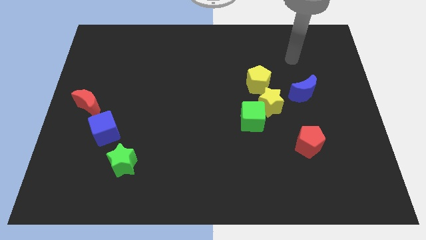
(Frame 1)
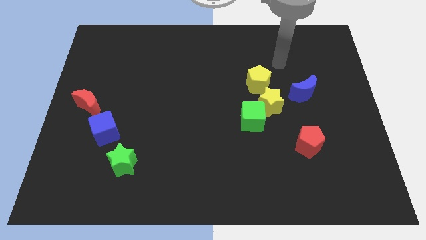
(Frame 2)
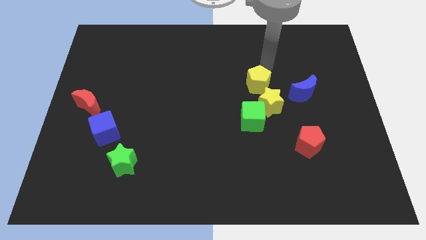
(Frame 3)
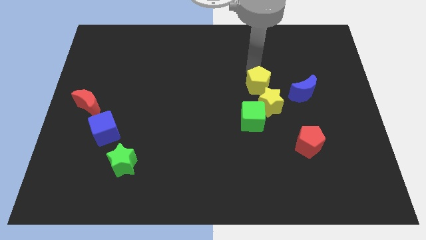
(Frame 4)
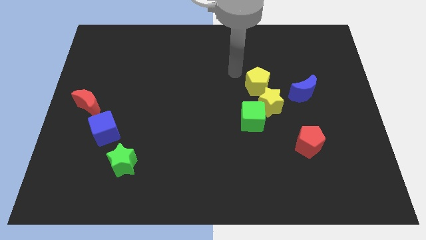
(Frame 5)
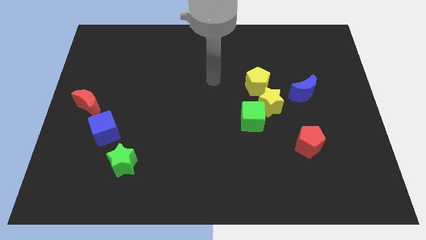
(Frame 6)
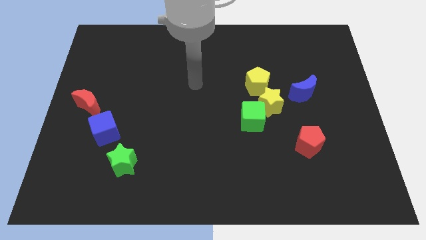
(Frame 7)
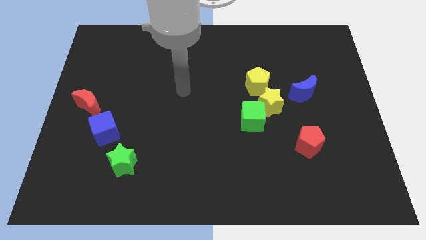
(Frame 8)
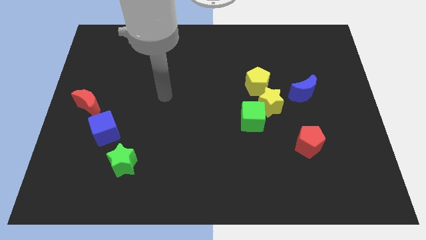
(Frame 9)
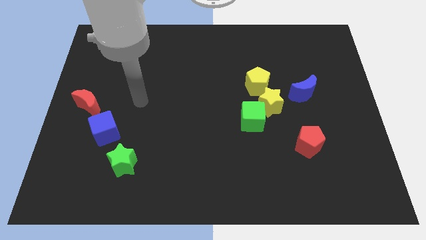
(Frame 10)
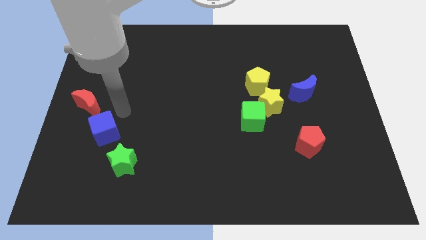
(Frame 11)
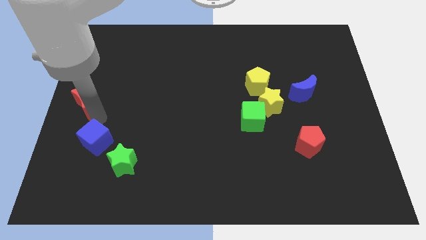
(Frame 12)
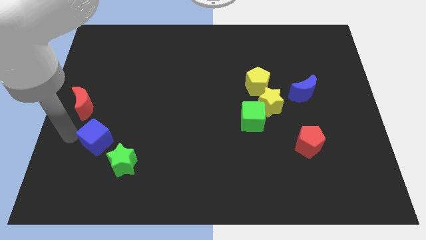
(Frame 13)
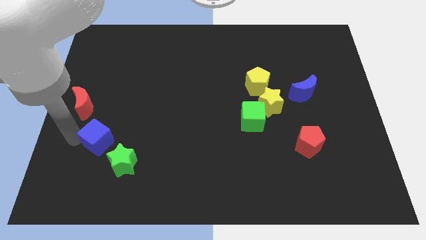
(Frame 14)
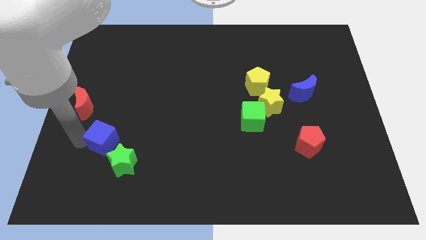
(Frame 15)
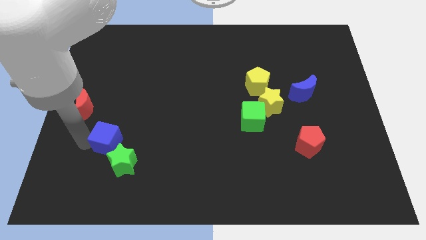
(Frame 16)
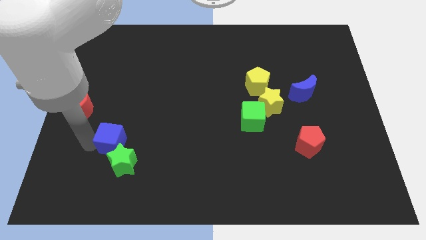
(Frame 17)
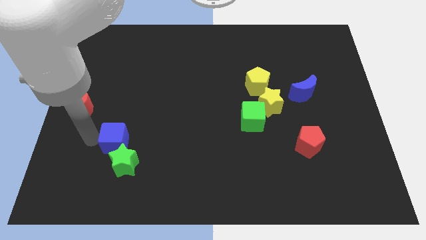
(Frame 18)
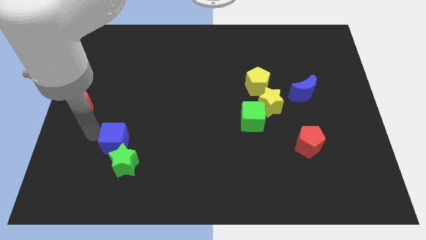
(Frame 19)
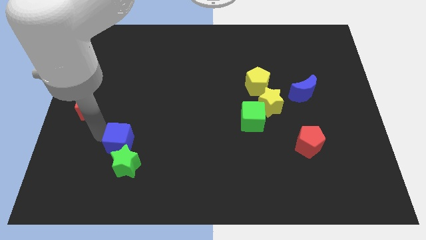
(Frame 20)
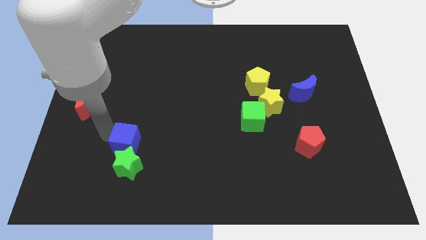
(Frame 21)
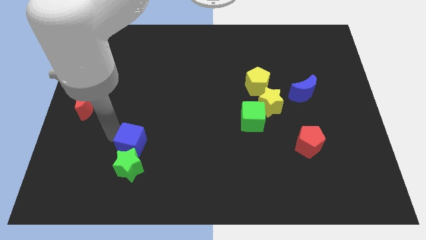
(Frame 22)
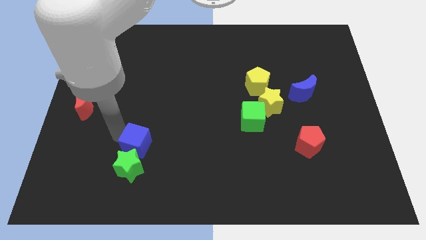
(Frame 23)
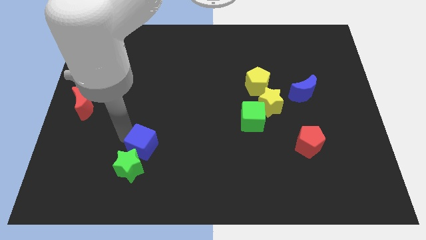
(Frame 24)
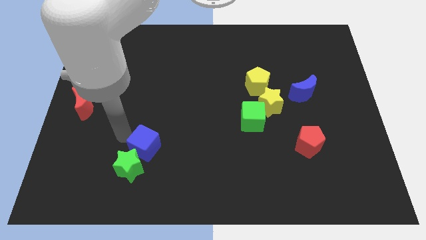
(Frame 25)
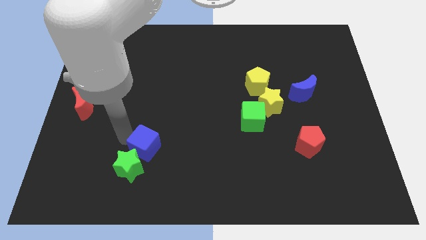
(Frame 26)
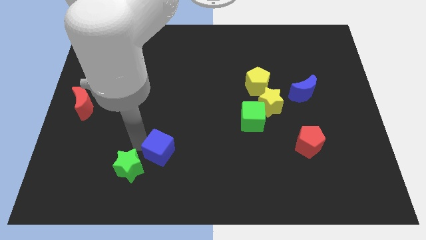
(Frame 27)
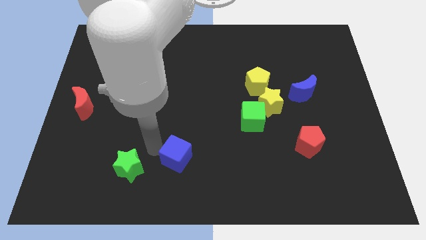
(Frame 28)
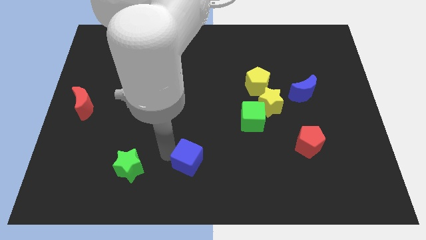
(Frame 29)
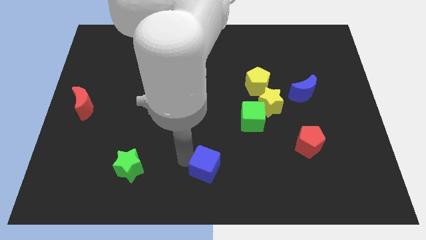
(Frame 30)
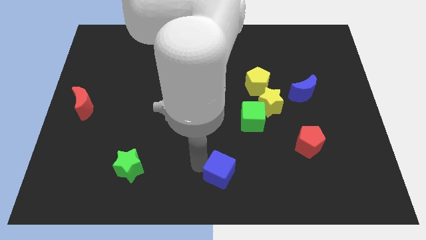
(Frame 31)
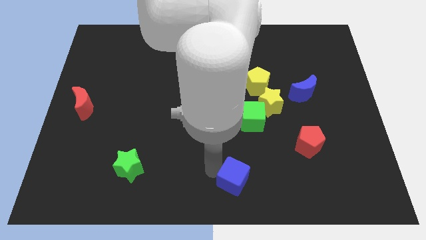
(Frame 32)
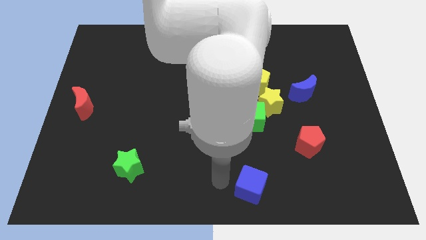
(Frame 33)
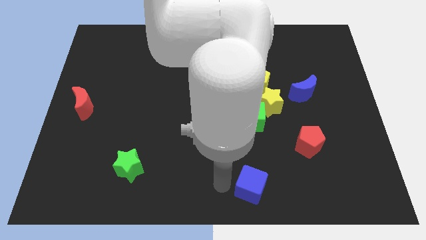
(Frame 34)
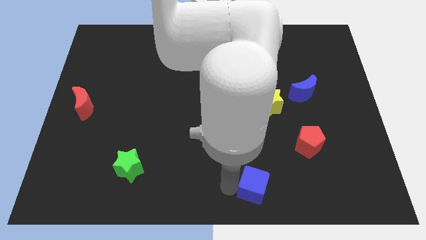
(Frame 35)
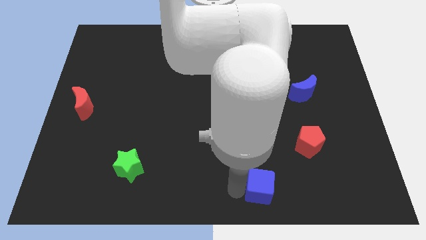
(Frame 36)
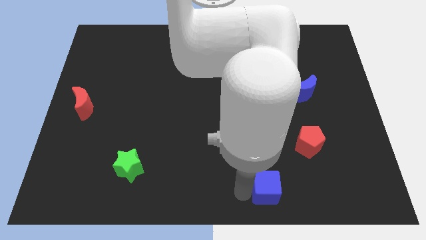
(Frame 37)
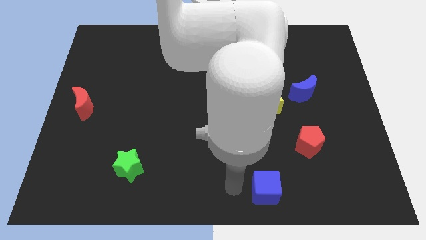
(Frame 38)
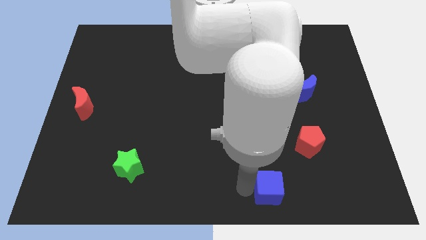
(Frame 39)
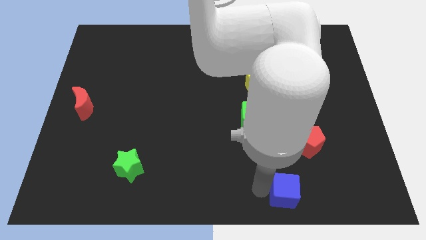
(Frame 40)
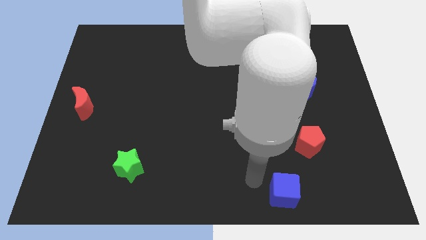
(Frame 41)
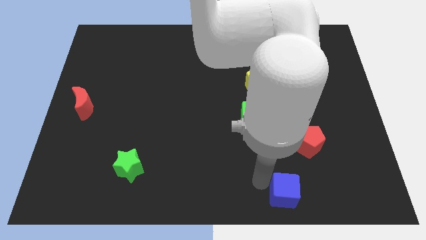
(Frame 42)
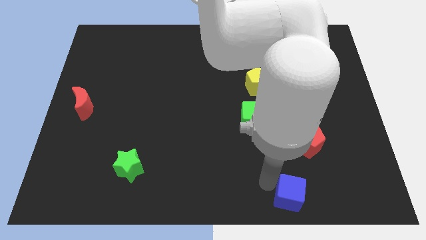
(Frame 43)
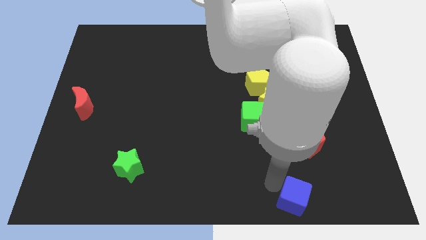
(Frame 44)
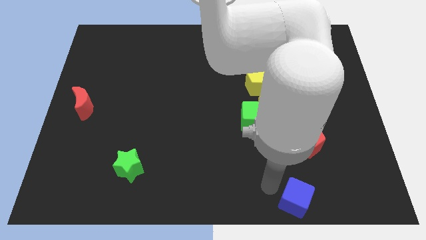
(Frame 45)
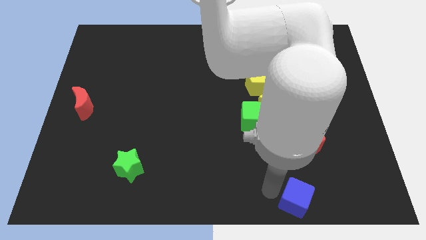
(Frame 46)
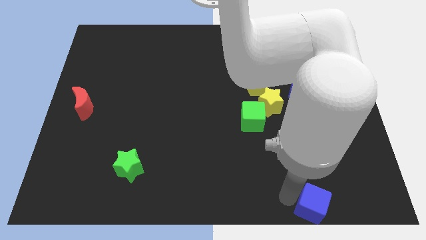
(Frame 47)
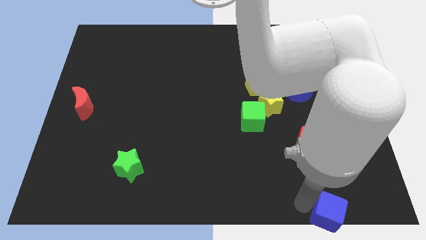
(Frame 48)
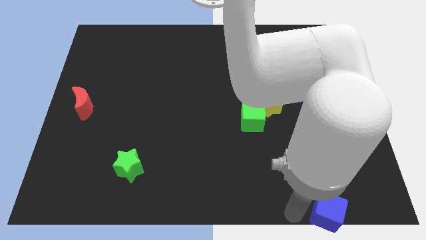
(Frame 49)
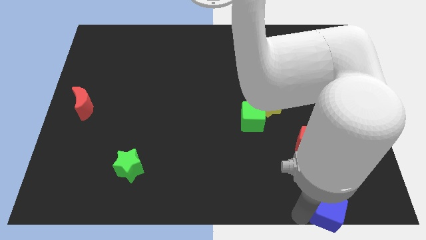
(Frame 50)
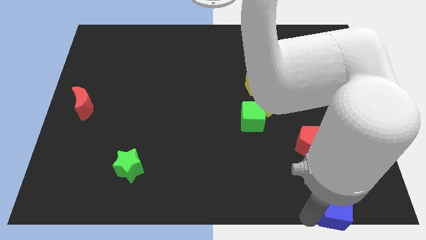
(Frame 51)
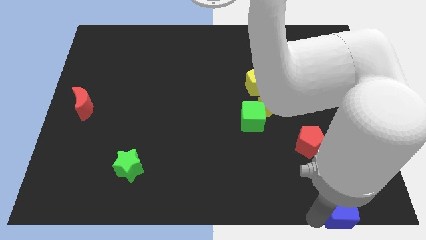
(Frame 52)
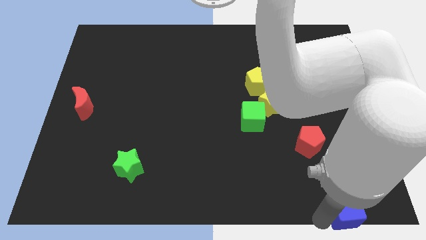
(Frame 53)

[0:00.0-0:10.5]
slide the blue cube to the bottom right corner

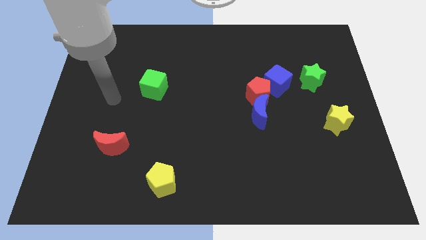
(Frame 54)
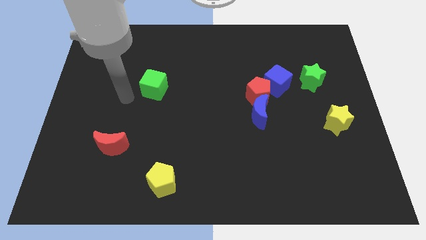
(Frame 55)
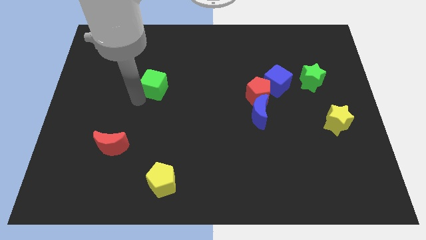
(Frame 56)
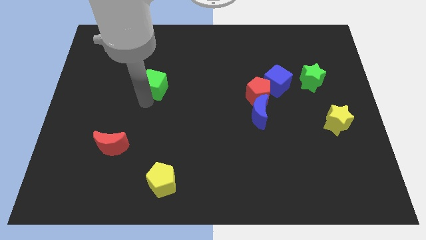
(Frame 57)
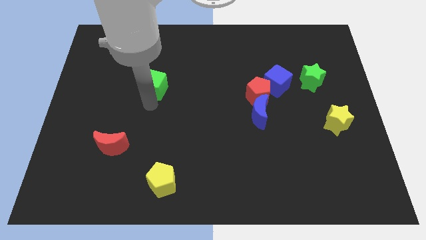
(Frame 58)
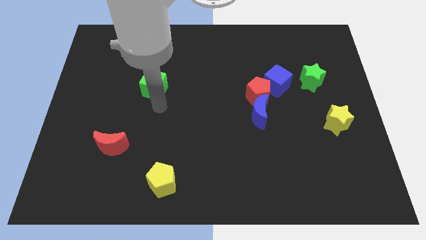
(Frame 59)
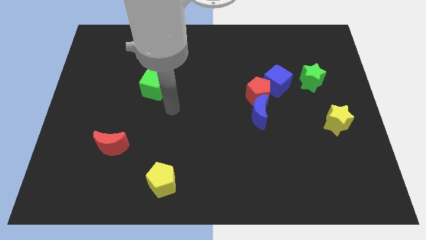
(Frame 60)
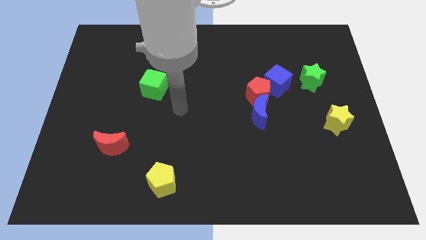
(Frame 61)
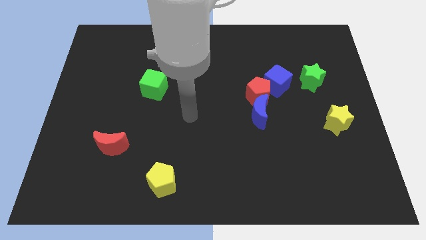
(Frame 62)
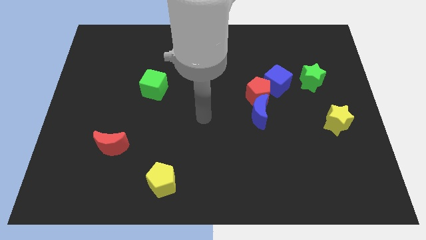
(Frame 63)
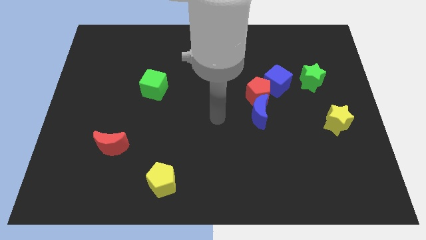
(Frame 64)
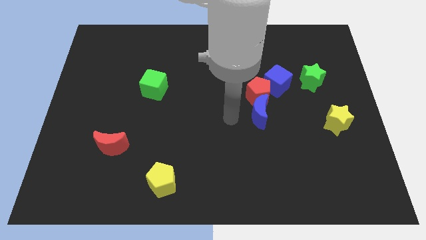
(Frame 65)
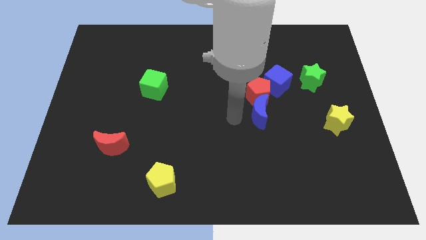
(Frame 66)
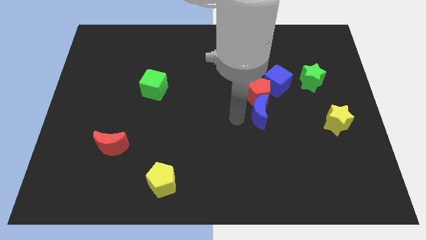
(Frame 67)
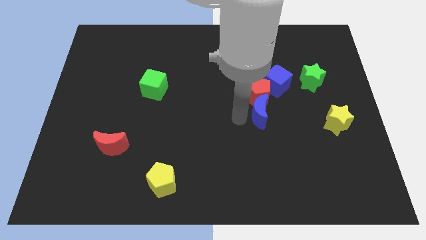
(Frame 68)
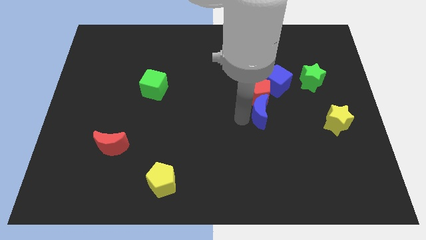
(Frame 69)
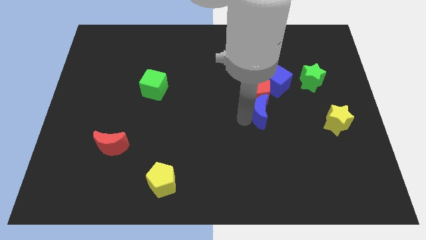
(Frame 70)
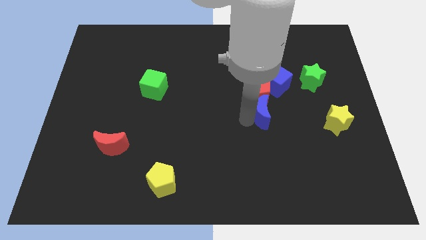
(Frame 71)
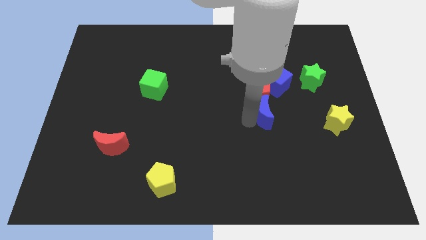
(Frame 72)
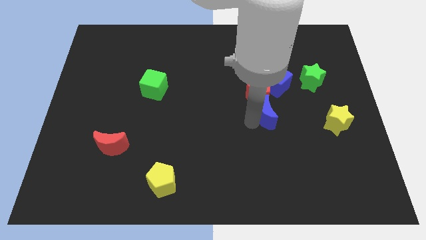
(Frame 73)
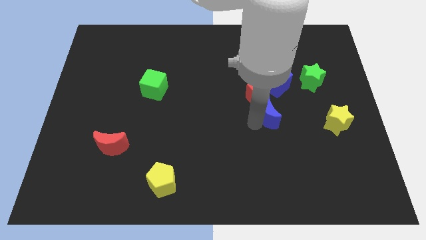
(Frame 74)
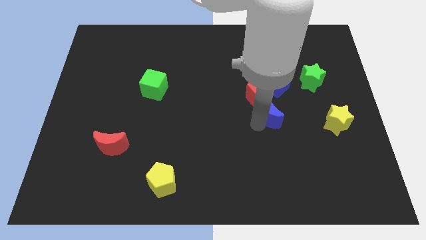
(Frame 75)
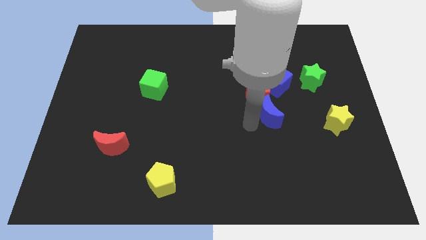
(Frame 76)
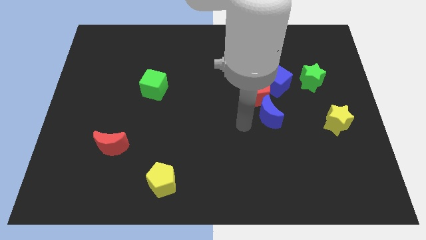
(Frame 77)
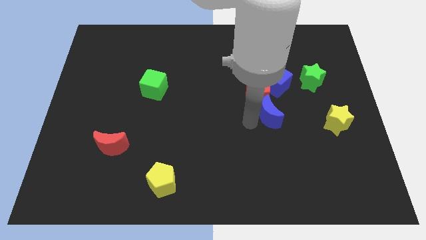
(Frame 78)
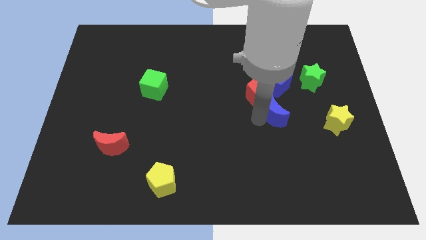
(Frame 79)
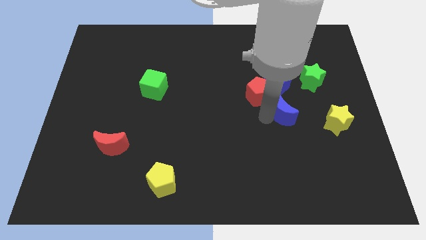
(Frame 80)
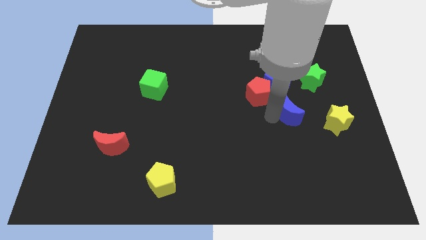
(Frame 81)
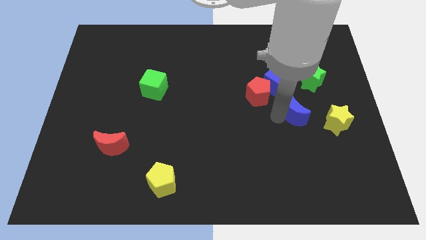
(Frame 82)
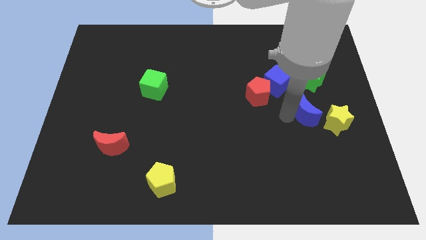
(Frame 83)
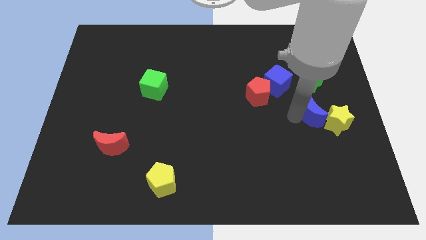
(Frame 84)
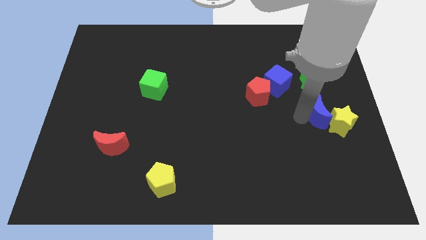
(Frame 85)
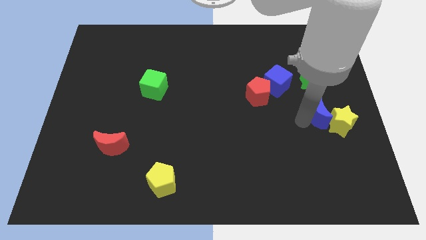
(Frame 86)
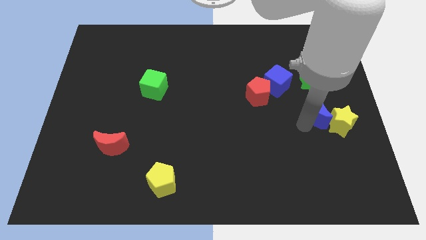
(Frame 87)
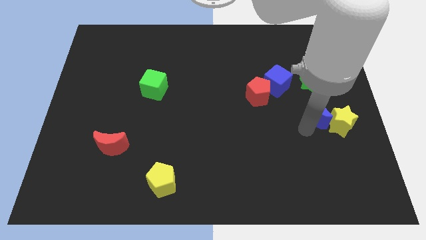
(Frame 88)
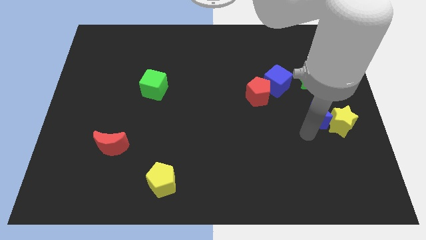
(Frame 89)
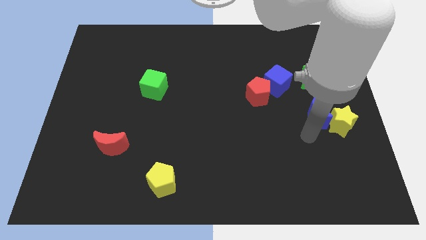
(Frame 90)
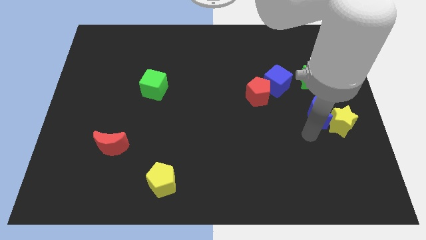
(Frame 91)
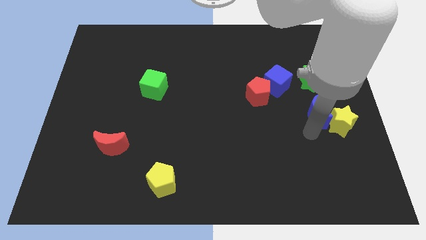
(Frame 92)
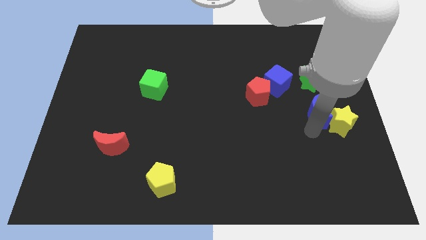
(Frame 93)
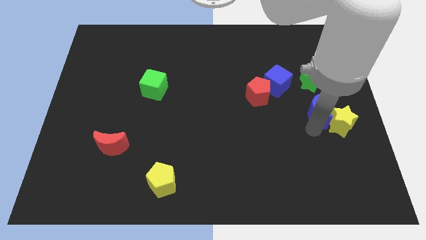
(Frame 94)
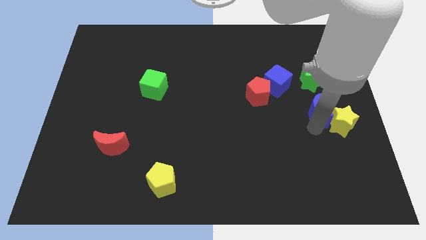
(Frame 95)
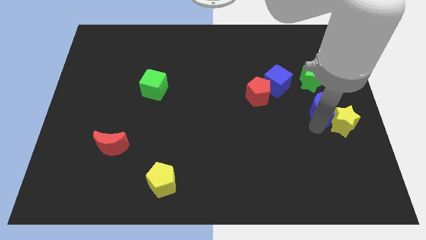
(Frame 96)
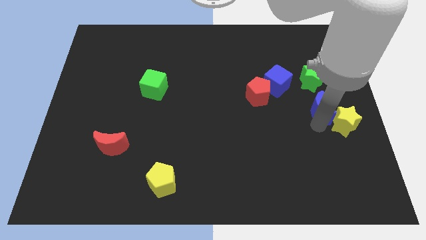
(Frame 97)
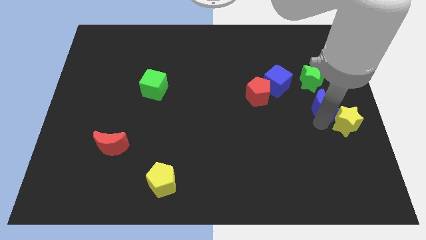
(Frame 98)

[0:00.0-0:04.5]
move the blue moon to the center right
